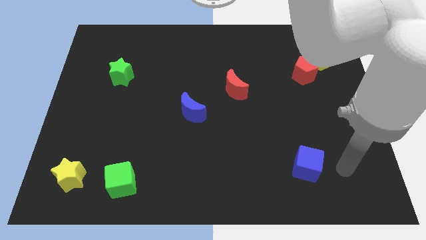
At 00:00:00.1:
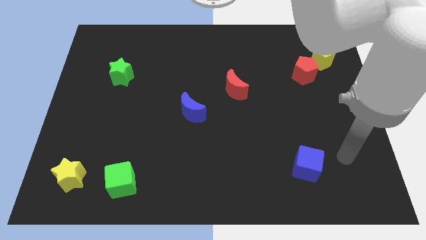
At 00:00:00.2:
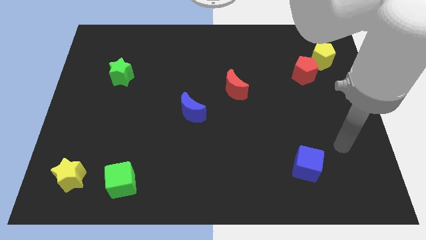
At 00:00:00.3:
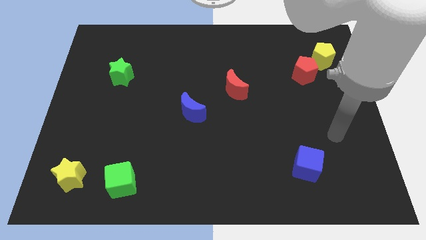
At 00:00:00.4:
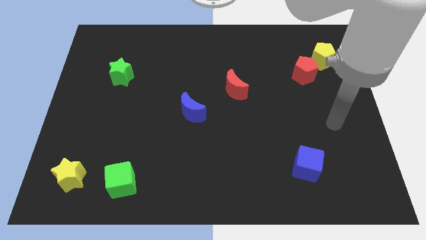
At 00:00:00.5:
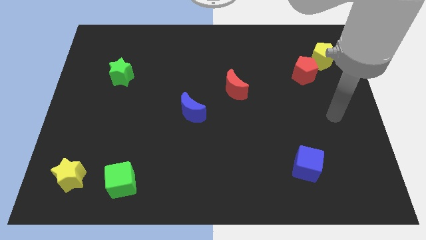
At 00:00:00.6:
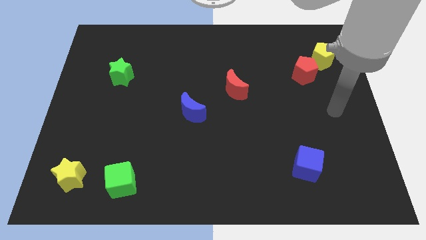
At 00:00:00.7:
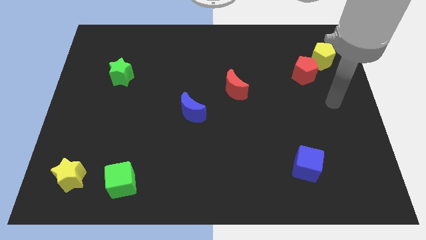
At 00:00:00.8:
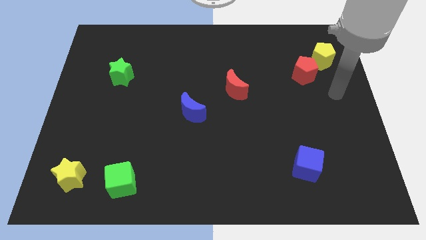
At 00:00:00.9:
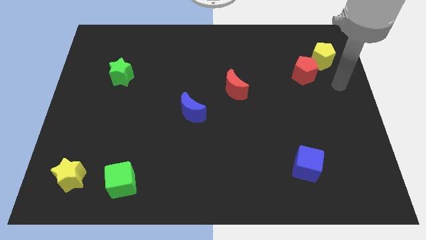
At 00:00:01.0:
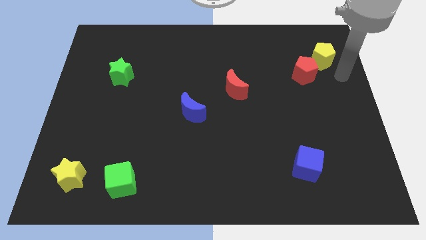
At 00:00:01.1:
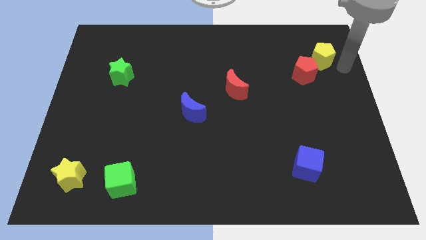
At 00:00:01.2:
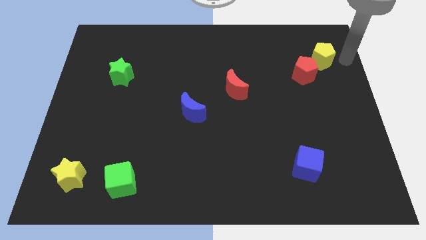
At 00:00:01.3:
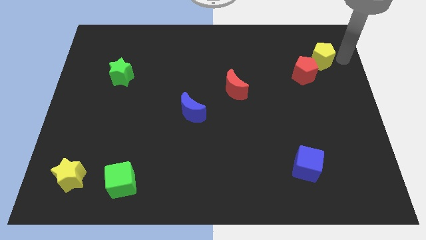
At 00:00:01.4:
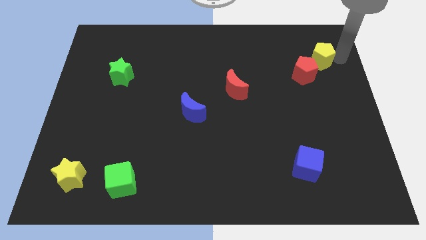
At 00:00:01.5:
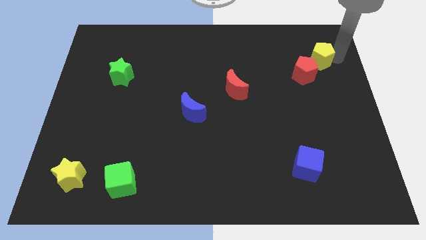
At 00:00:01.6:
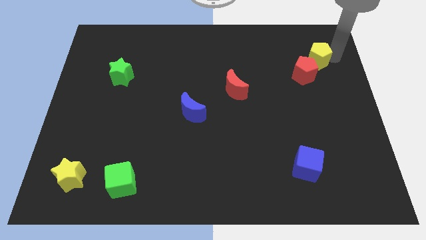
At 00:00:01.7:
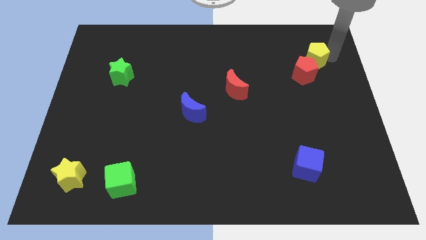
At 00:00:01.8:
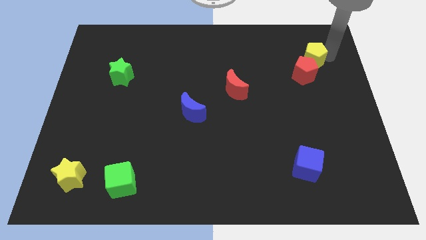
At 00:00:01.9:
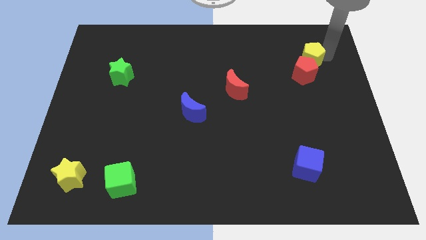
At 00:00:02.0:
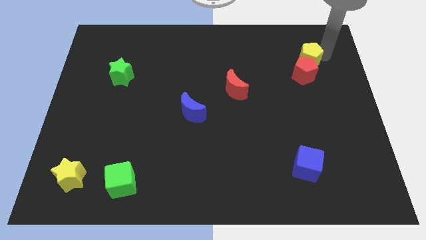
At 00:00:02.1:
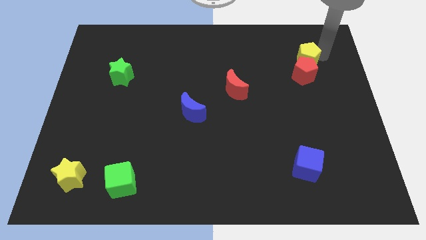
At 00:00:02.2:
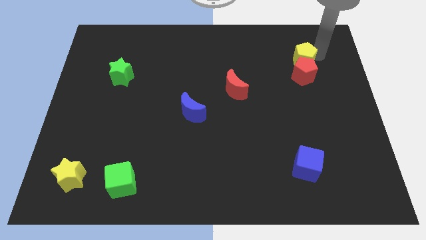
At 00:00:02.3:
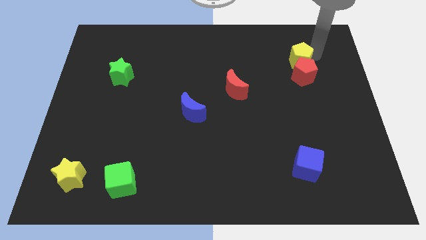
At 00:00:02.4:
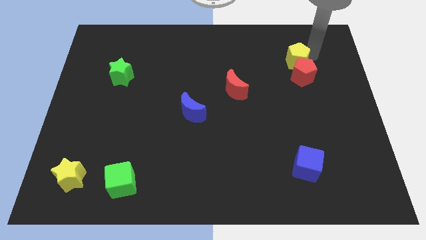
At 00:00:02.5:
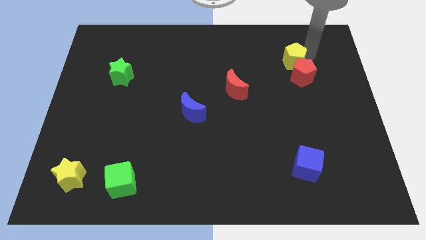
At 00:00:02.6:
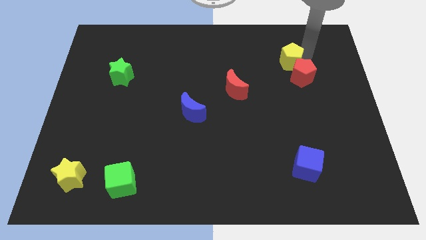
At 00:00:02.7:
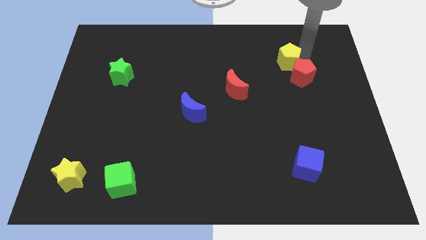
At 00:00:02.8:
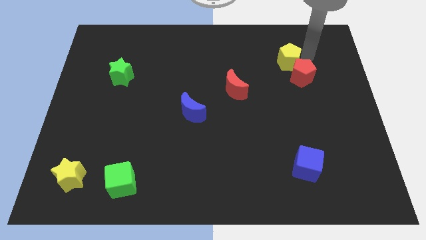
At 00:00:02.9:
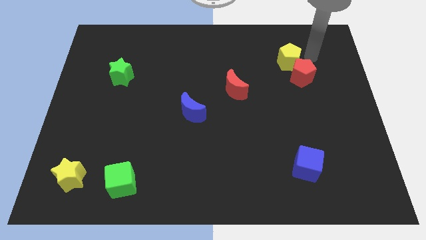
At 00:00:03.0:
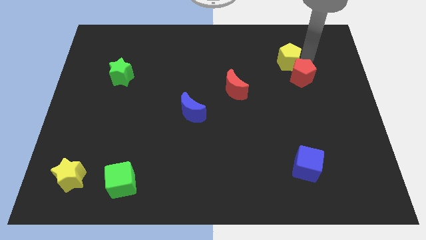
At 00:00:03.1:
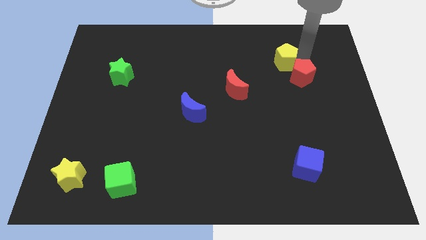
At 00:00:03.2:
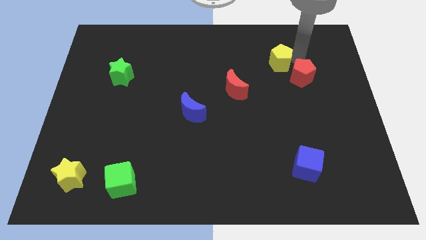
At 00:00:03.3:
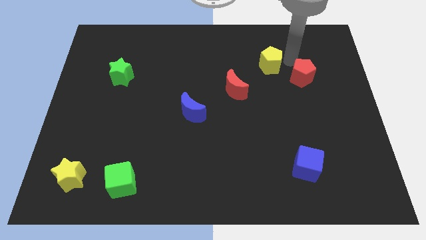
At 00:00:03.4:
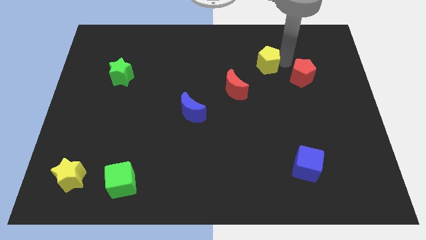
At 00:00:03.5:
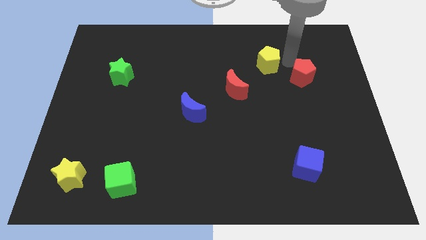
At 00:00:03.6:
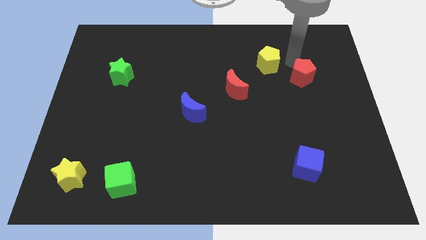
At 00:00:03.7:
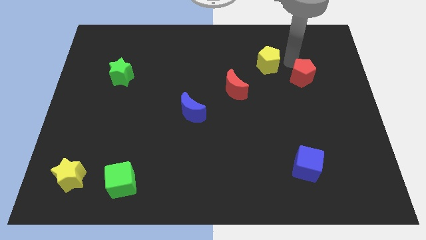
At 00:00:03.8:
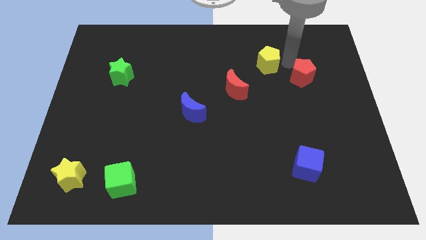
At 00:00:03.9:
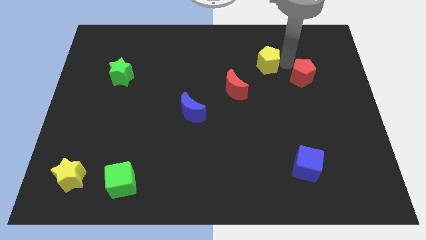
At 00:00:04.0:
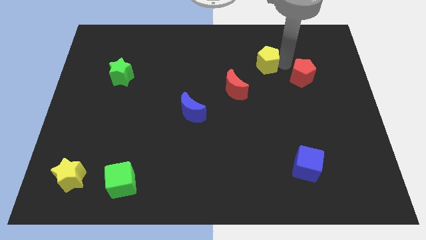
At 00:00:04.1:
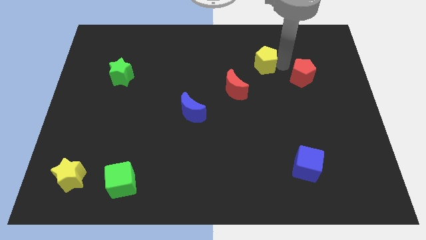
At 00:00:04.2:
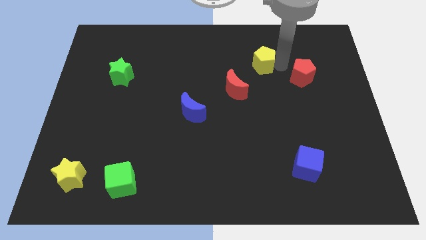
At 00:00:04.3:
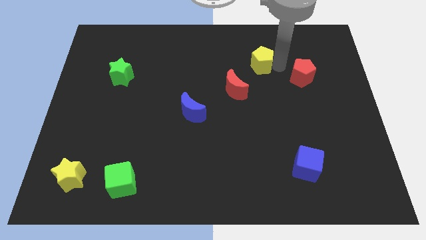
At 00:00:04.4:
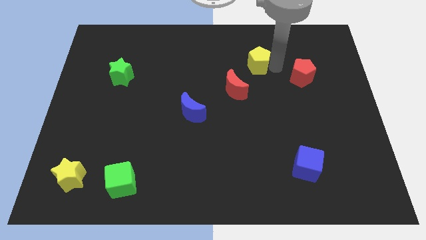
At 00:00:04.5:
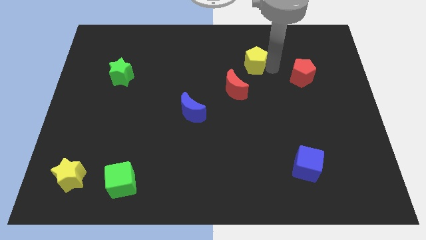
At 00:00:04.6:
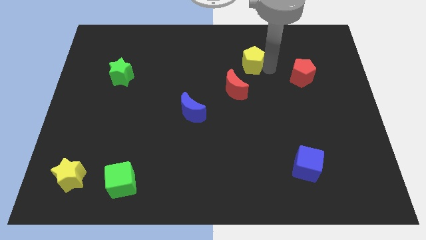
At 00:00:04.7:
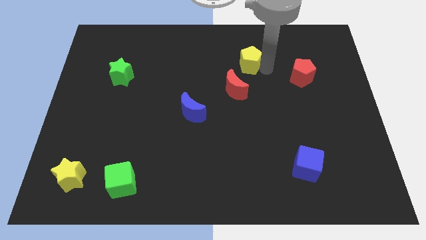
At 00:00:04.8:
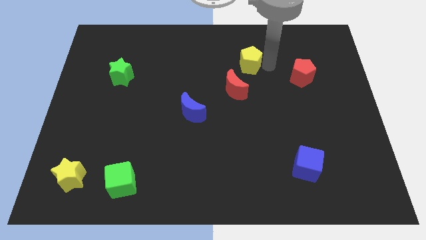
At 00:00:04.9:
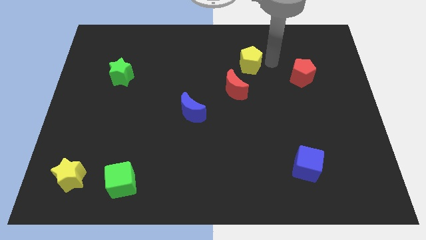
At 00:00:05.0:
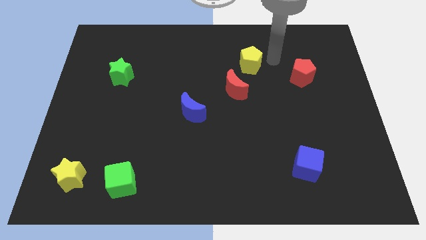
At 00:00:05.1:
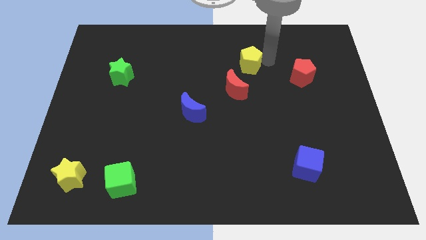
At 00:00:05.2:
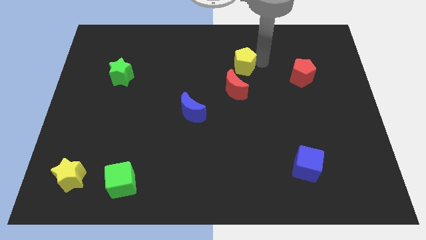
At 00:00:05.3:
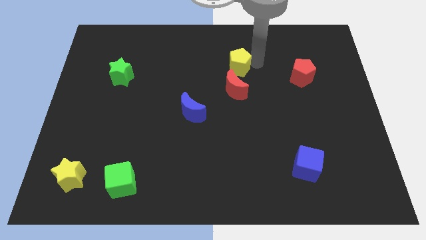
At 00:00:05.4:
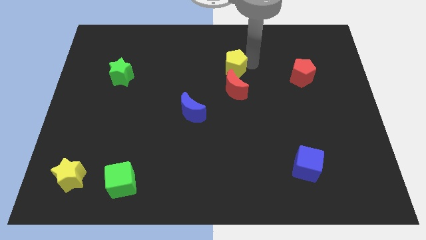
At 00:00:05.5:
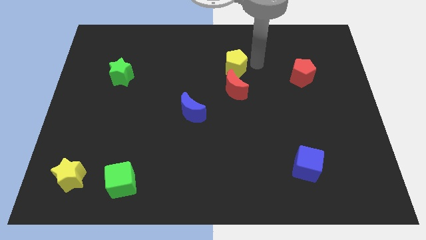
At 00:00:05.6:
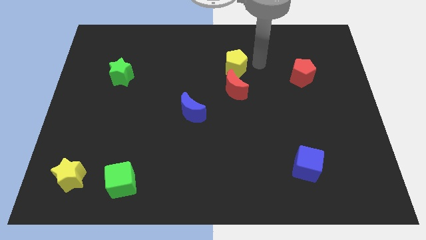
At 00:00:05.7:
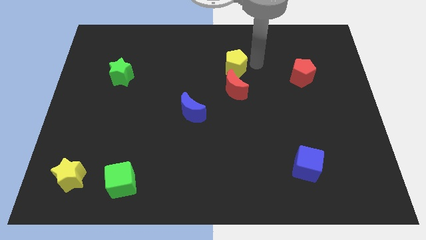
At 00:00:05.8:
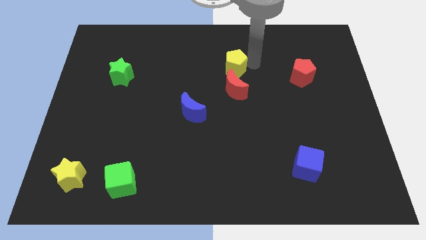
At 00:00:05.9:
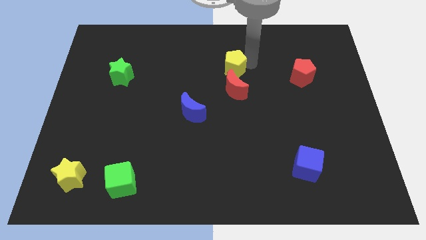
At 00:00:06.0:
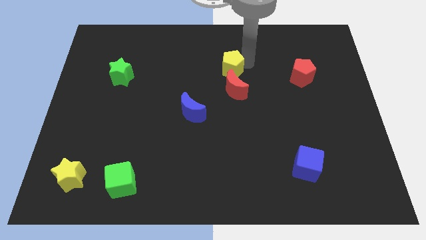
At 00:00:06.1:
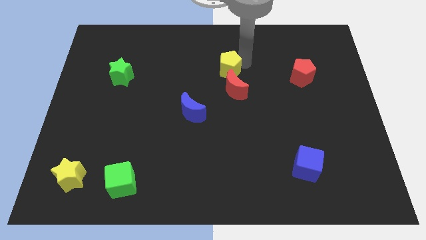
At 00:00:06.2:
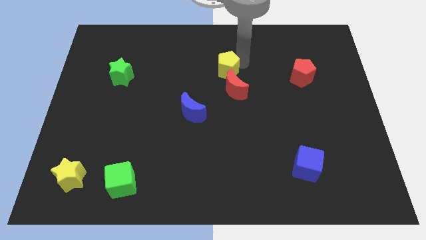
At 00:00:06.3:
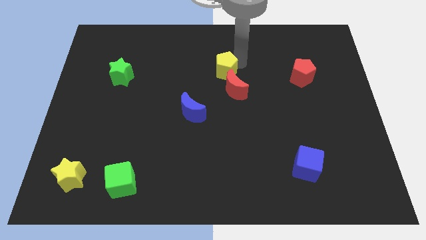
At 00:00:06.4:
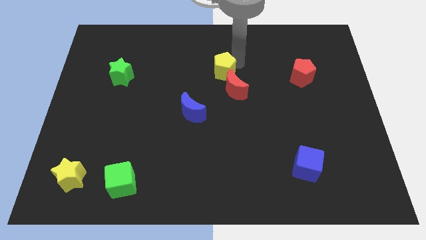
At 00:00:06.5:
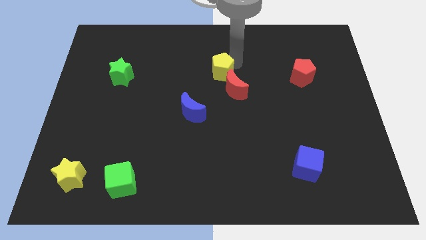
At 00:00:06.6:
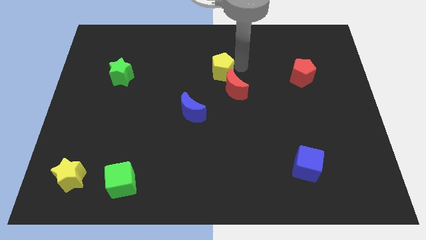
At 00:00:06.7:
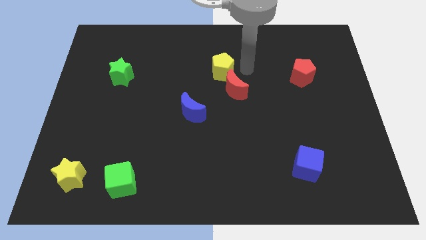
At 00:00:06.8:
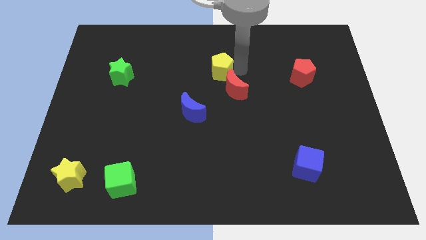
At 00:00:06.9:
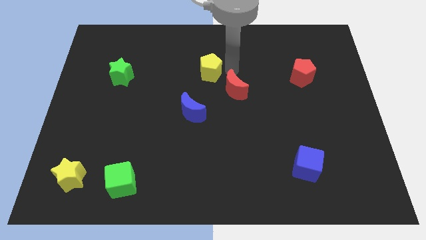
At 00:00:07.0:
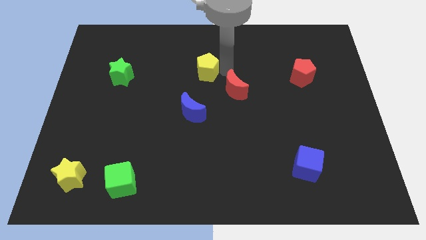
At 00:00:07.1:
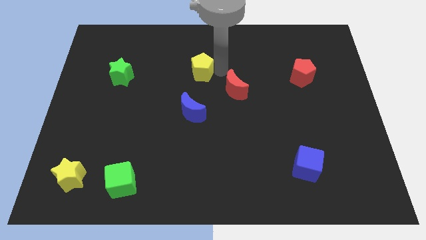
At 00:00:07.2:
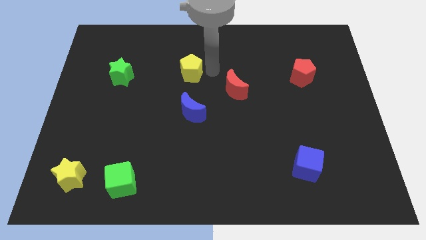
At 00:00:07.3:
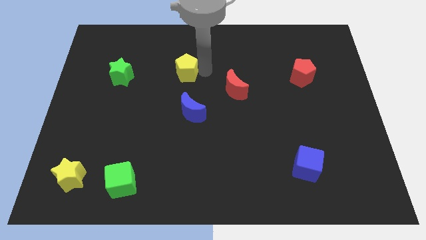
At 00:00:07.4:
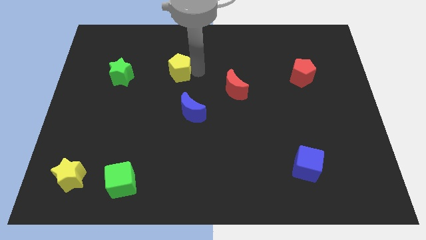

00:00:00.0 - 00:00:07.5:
put the yellow pentagon to the right side of the green star
